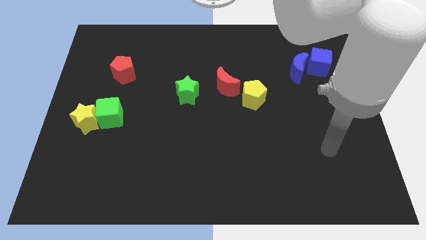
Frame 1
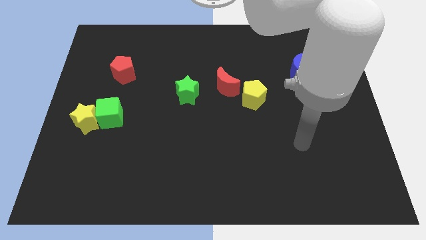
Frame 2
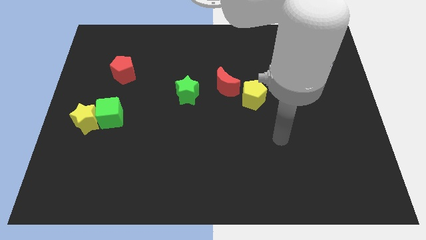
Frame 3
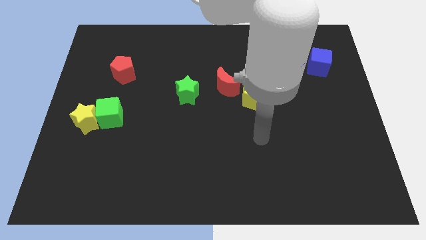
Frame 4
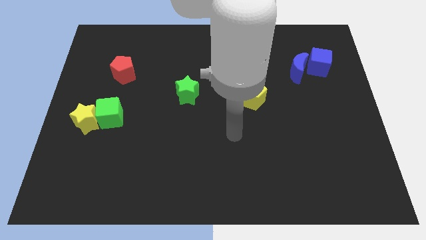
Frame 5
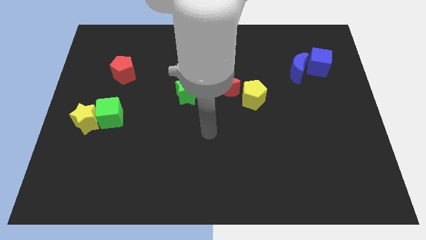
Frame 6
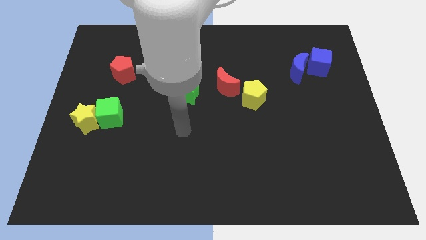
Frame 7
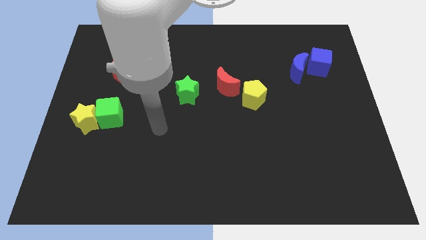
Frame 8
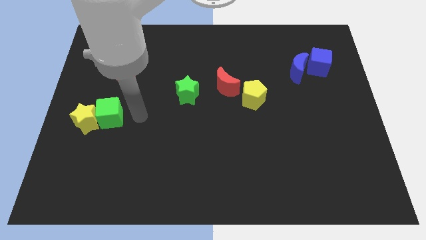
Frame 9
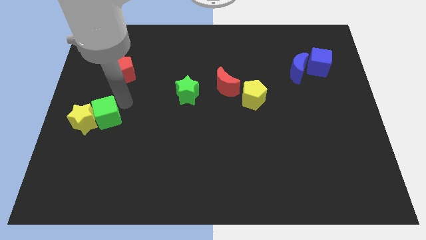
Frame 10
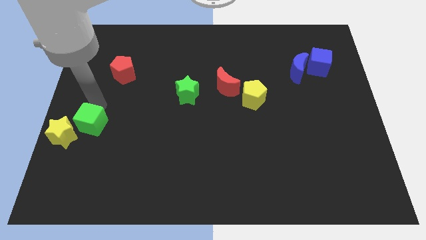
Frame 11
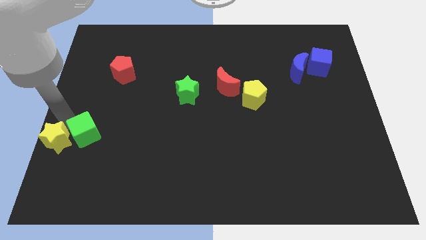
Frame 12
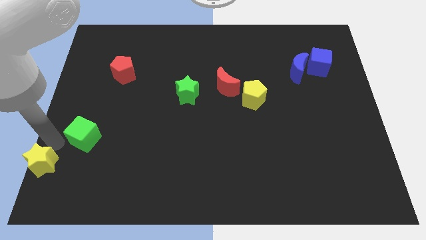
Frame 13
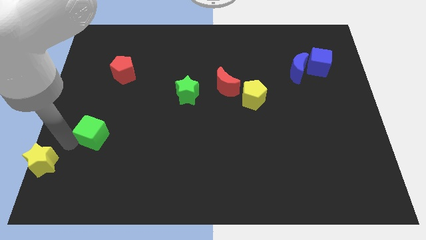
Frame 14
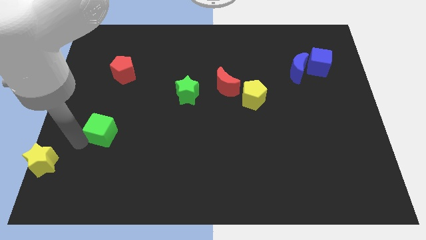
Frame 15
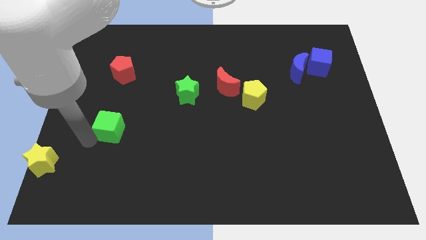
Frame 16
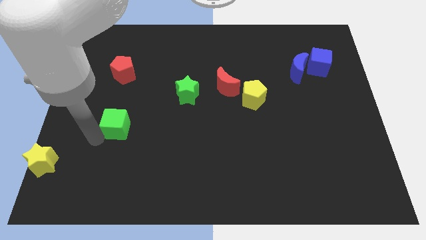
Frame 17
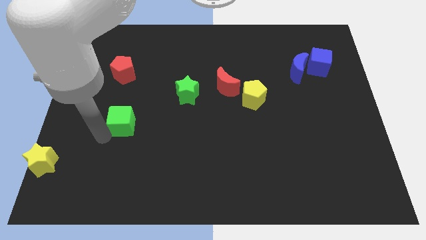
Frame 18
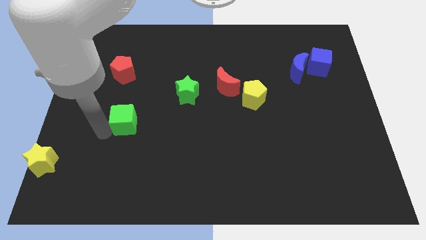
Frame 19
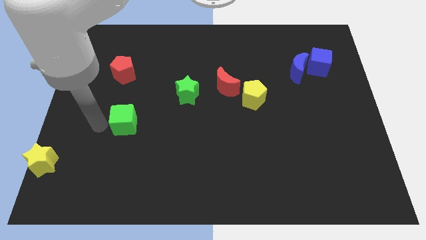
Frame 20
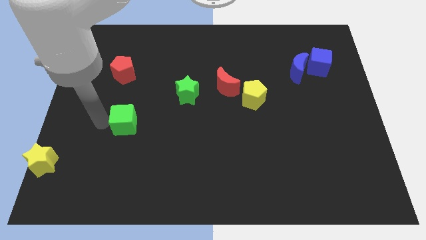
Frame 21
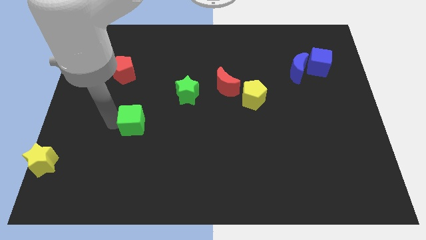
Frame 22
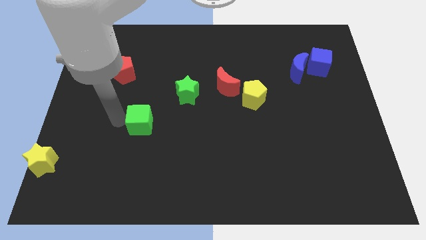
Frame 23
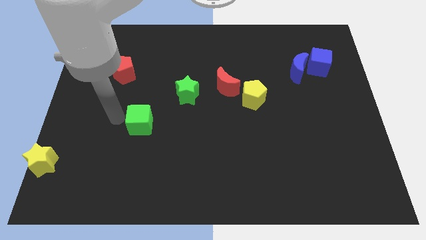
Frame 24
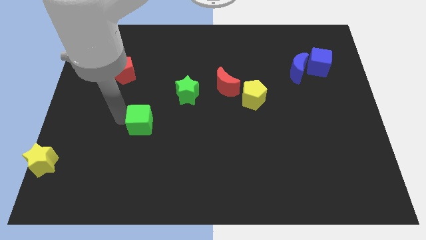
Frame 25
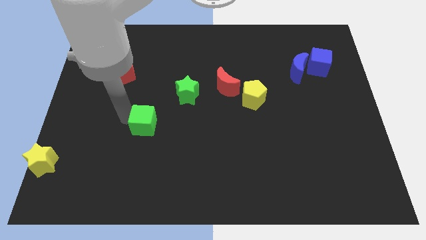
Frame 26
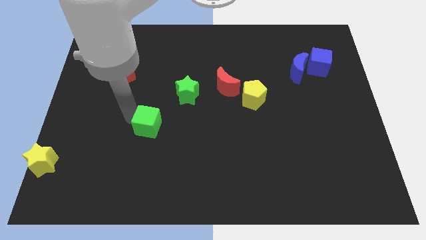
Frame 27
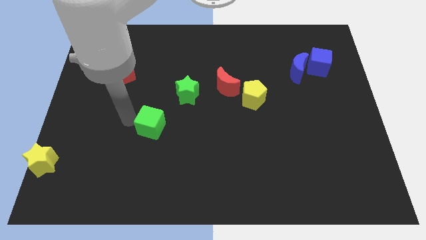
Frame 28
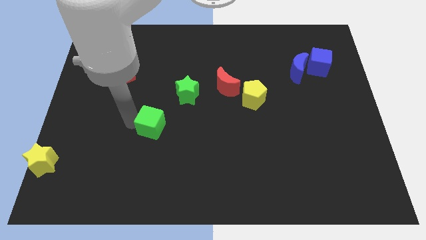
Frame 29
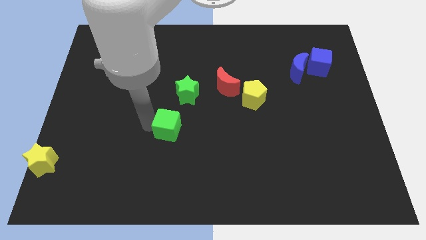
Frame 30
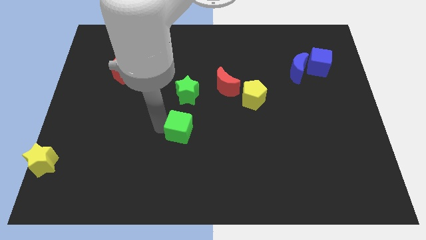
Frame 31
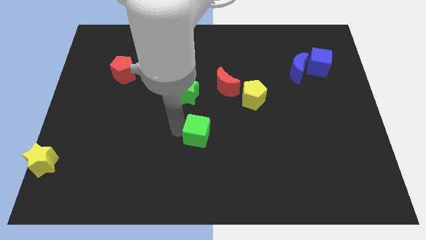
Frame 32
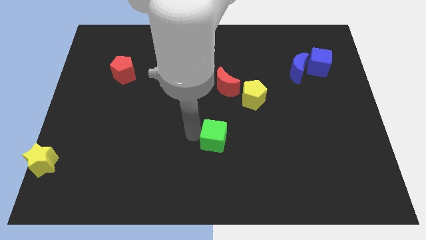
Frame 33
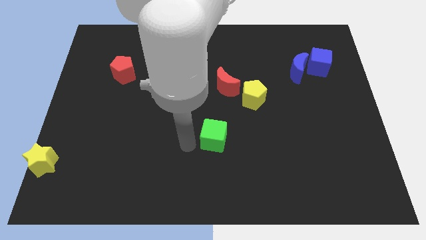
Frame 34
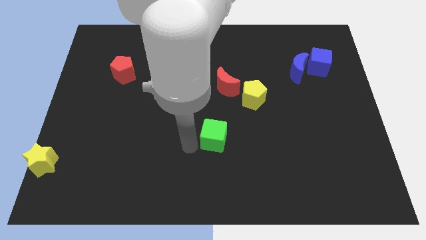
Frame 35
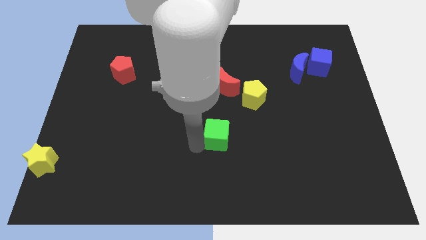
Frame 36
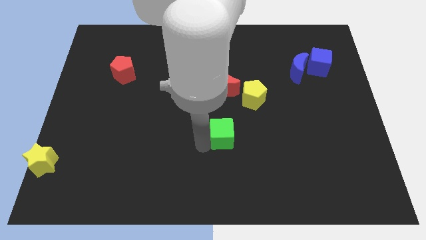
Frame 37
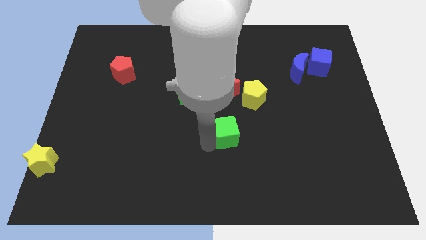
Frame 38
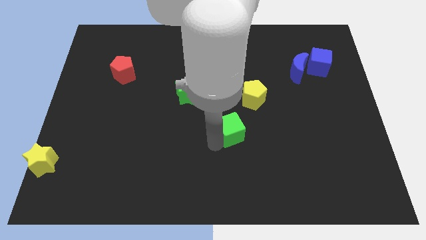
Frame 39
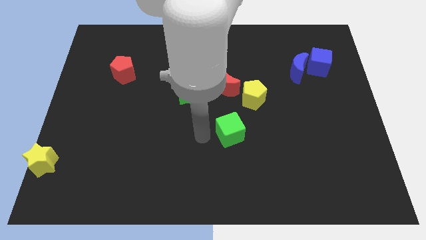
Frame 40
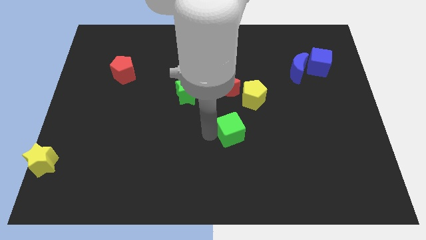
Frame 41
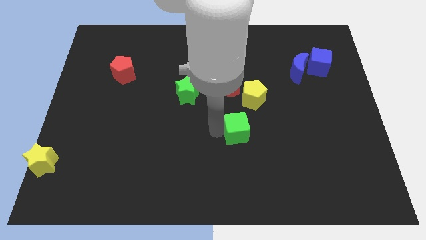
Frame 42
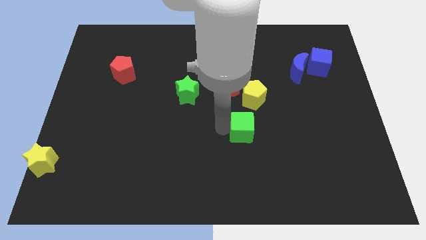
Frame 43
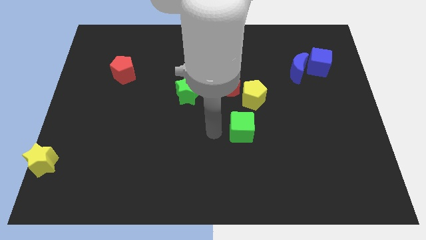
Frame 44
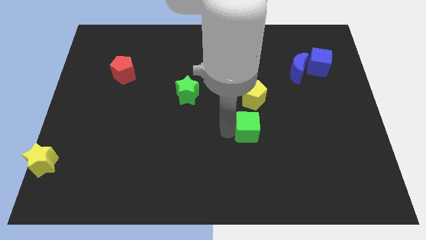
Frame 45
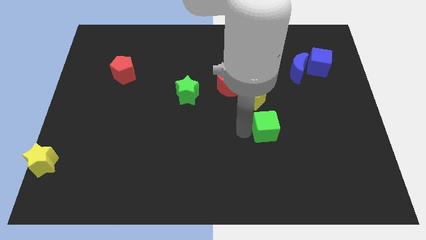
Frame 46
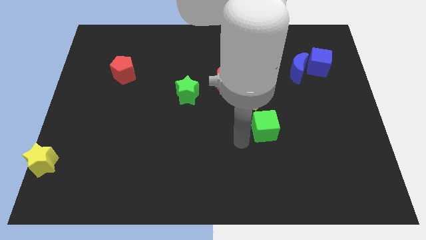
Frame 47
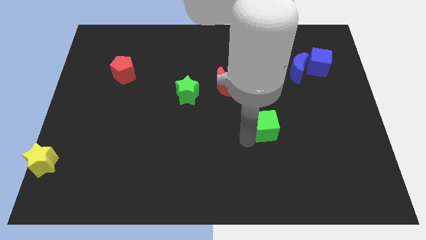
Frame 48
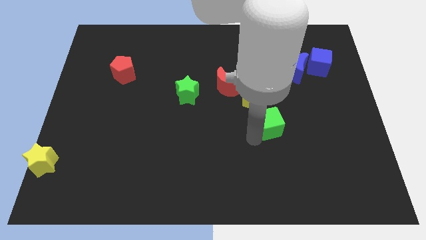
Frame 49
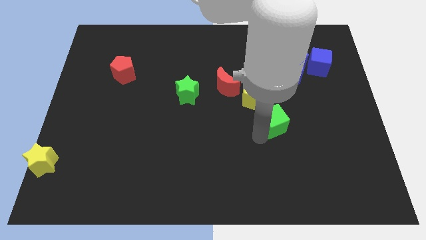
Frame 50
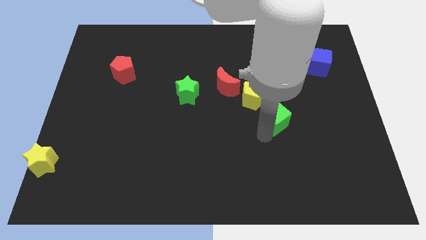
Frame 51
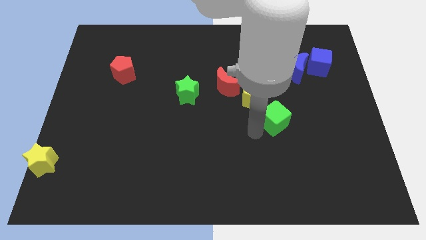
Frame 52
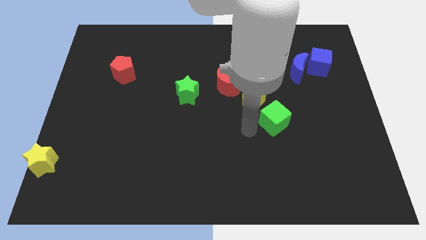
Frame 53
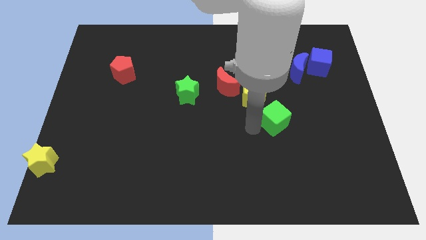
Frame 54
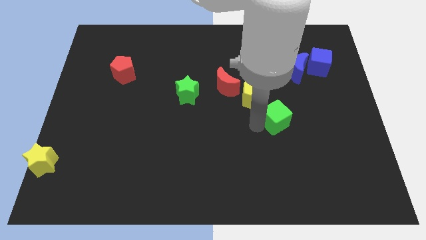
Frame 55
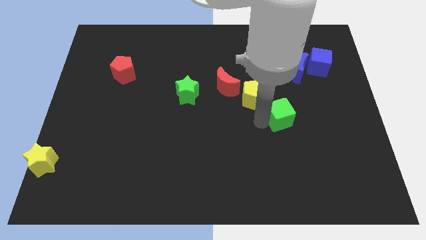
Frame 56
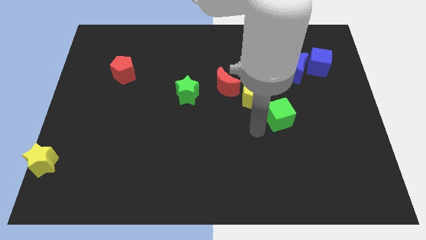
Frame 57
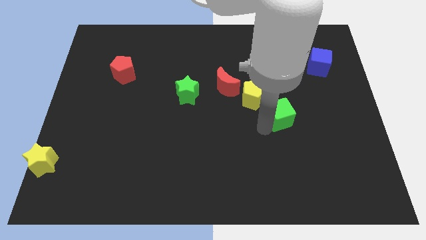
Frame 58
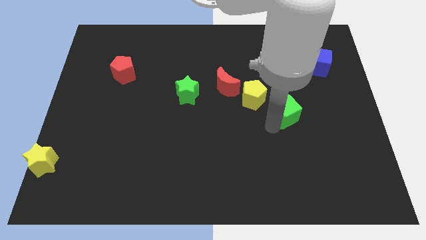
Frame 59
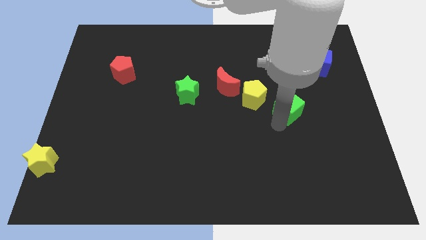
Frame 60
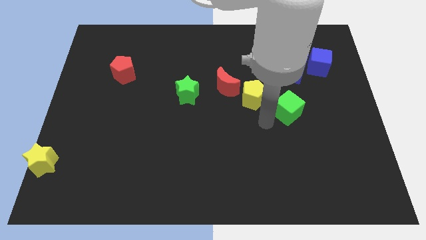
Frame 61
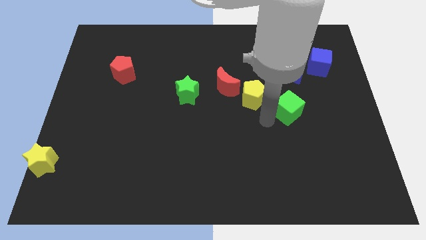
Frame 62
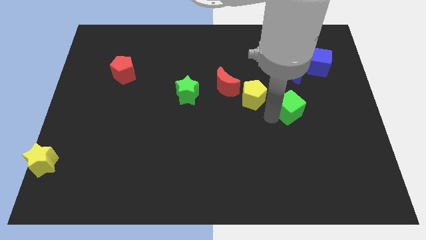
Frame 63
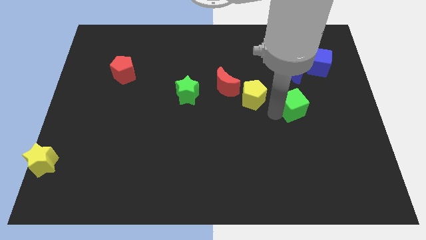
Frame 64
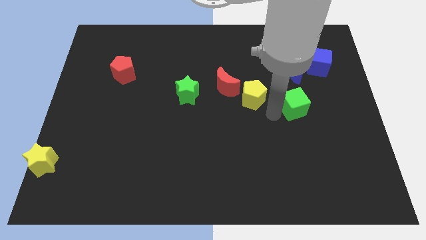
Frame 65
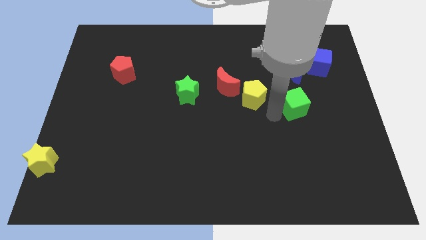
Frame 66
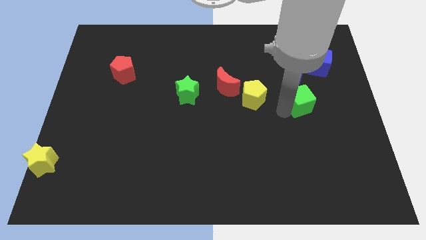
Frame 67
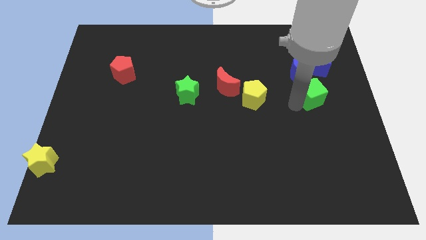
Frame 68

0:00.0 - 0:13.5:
put the green cube below the blue cube

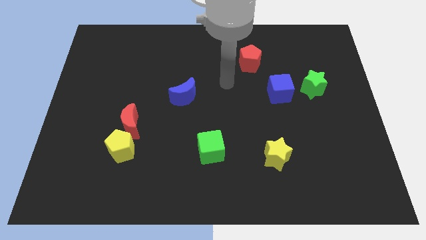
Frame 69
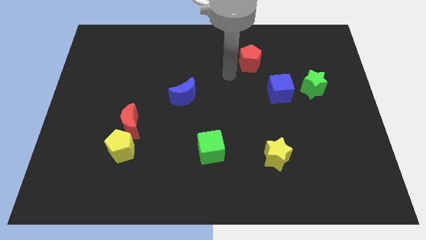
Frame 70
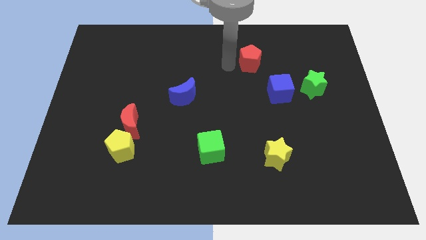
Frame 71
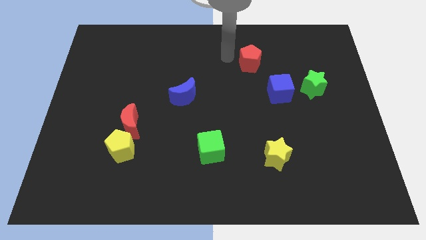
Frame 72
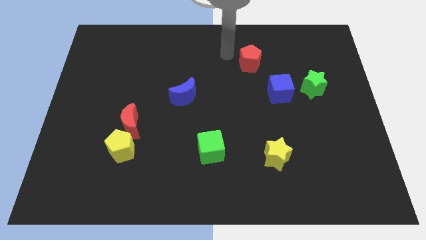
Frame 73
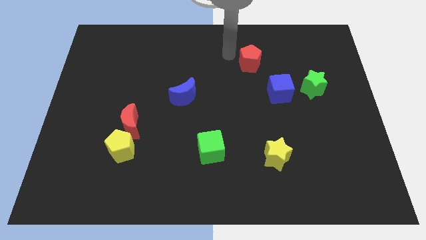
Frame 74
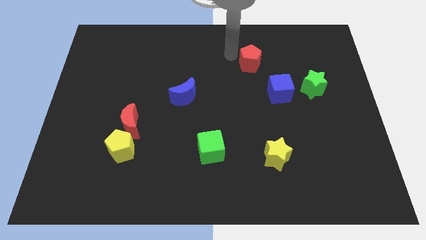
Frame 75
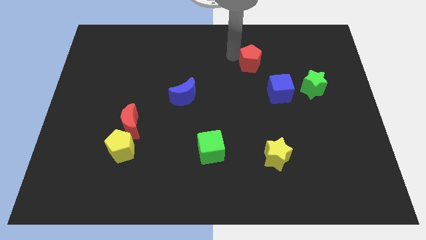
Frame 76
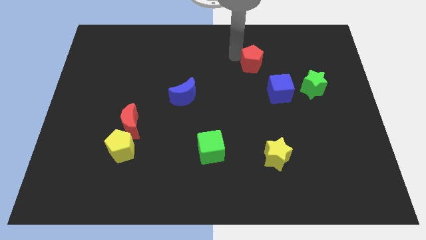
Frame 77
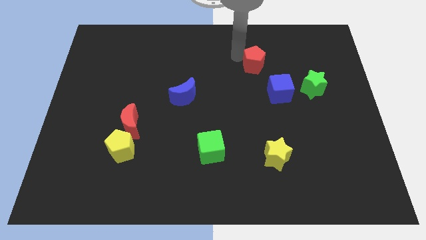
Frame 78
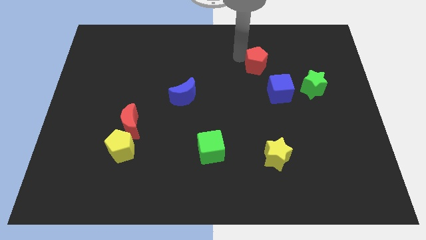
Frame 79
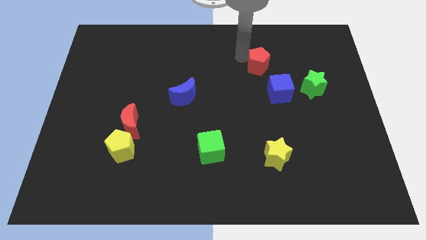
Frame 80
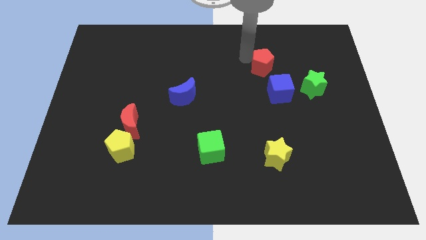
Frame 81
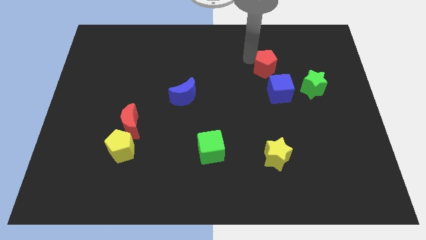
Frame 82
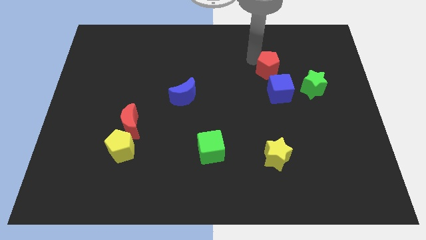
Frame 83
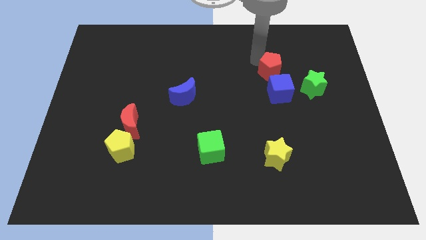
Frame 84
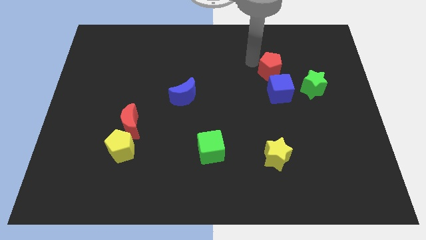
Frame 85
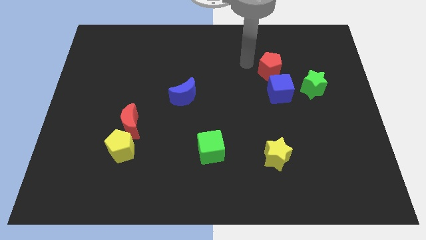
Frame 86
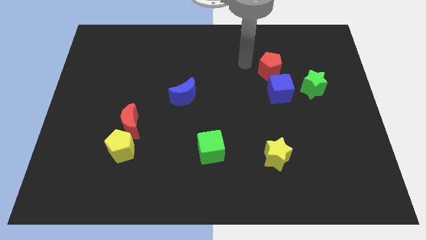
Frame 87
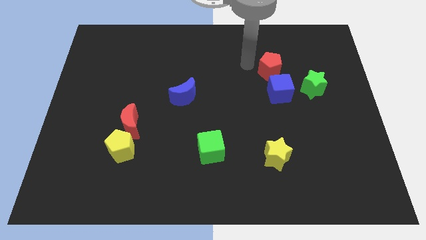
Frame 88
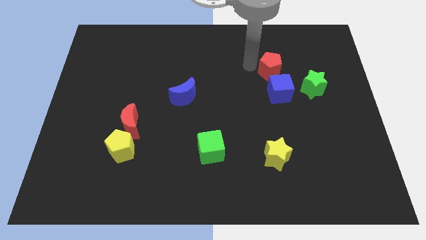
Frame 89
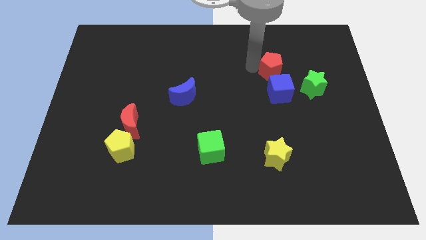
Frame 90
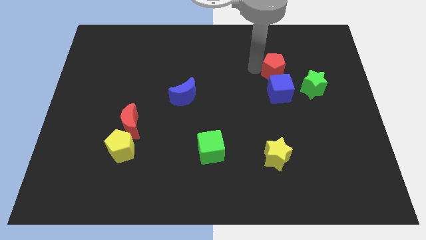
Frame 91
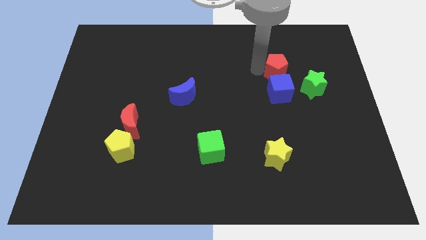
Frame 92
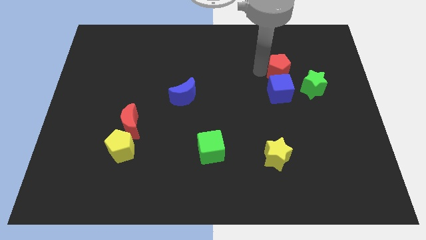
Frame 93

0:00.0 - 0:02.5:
move the red pentagon diagonally up and to the right of the blue cube
